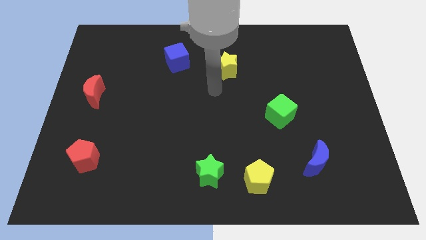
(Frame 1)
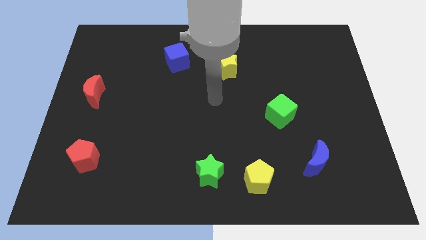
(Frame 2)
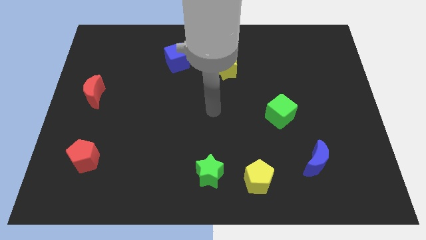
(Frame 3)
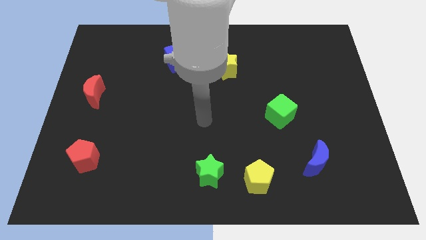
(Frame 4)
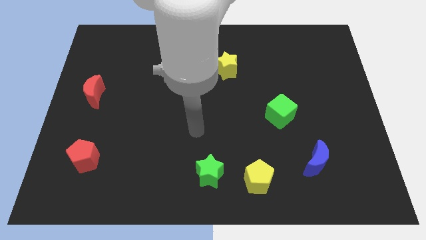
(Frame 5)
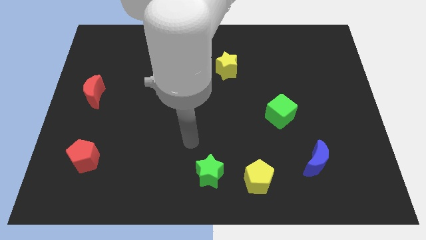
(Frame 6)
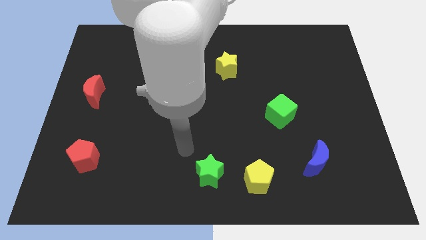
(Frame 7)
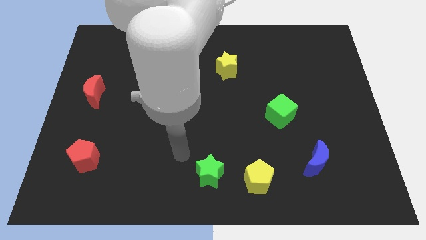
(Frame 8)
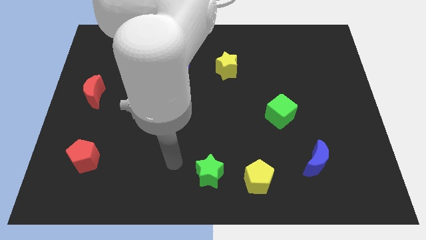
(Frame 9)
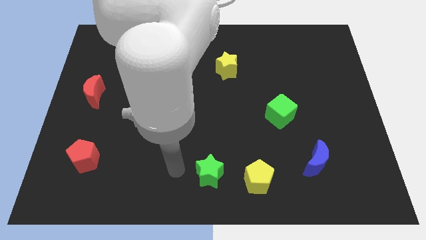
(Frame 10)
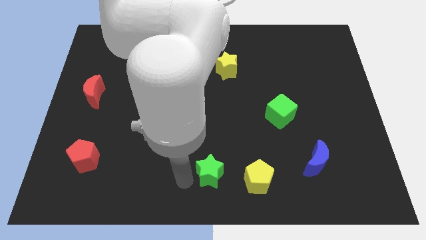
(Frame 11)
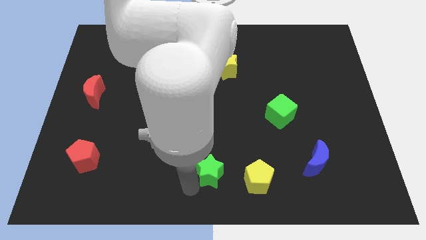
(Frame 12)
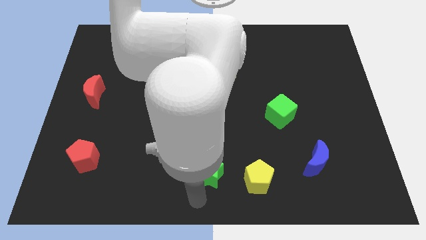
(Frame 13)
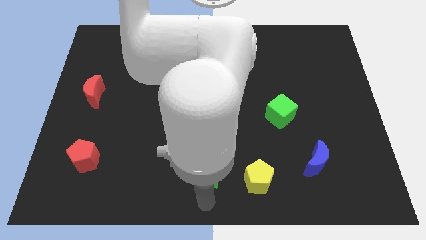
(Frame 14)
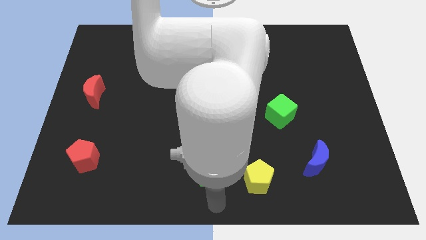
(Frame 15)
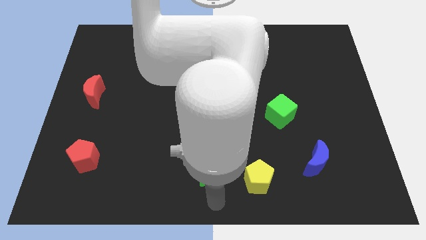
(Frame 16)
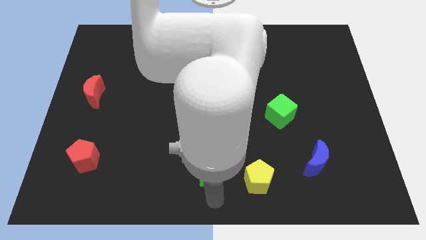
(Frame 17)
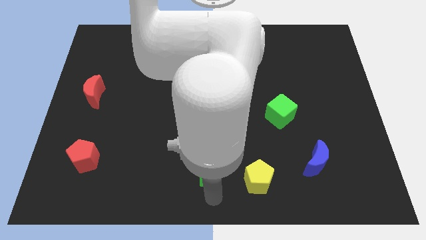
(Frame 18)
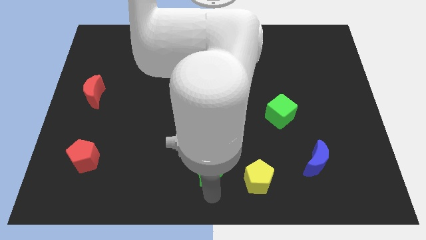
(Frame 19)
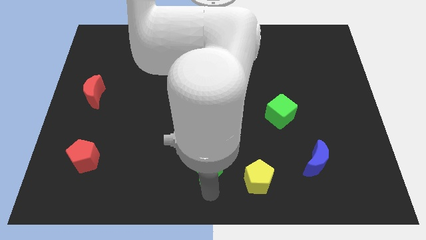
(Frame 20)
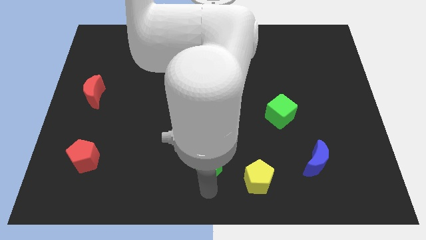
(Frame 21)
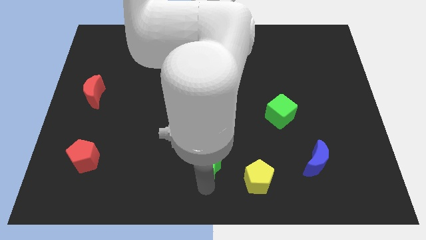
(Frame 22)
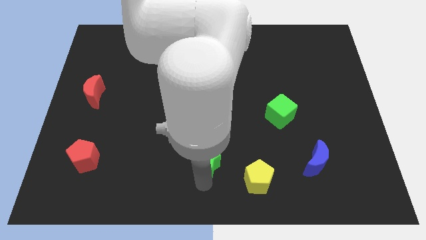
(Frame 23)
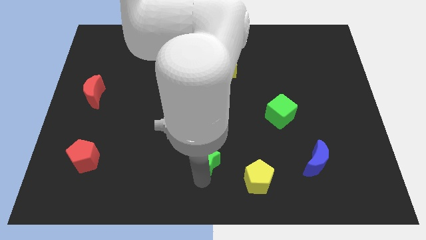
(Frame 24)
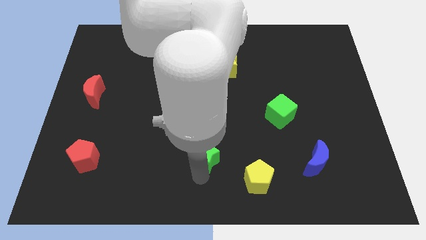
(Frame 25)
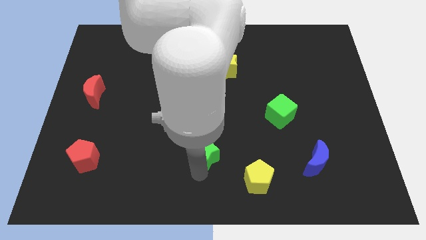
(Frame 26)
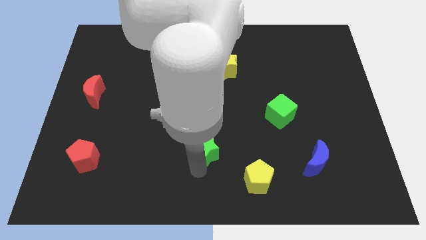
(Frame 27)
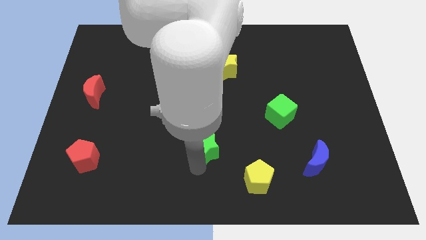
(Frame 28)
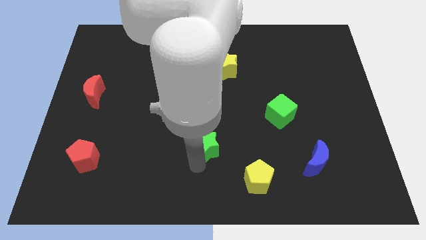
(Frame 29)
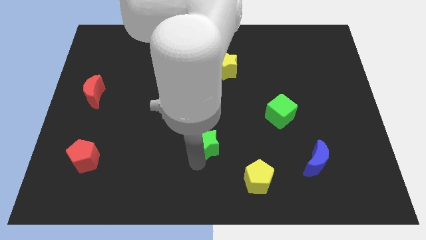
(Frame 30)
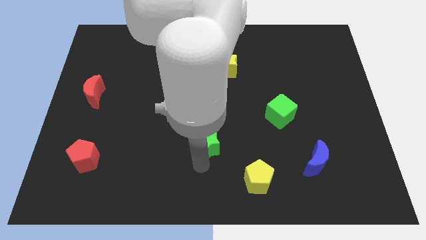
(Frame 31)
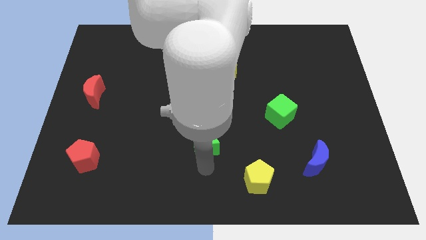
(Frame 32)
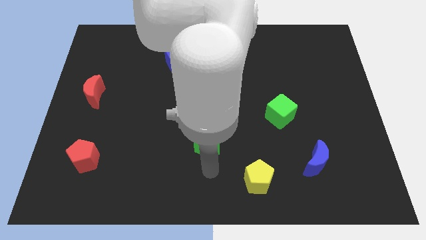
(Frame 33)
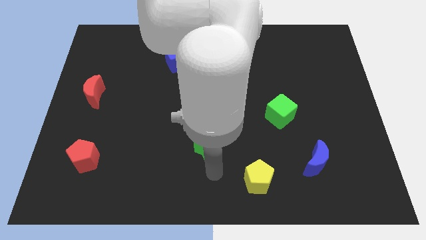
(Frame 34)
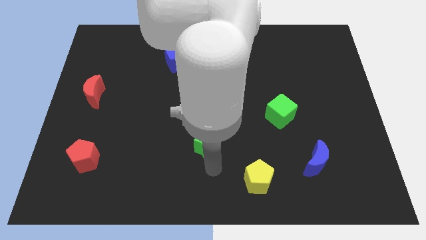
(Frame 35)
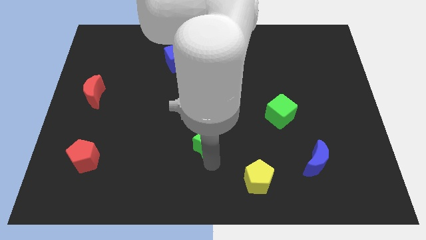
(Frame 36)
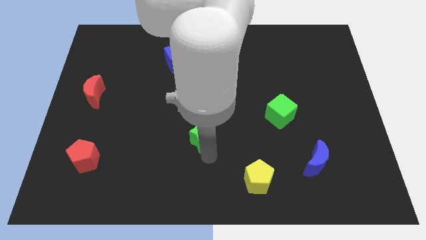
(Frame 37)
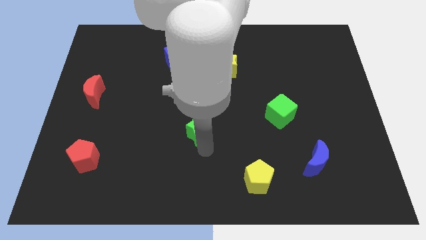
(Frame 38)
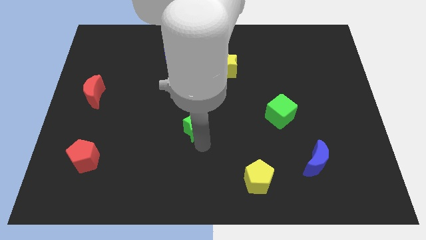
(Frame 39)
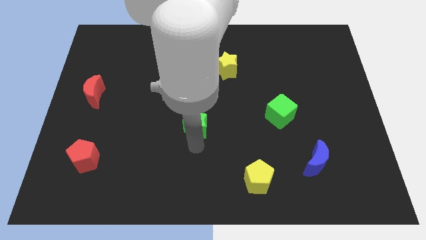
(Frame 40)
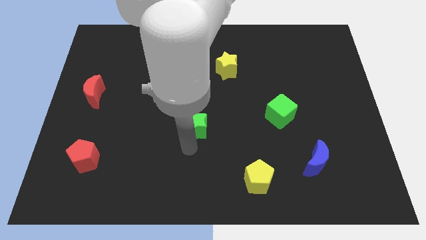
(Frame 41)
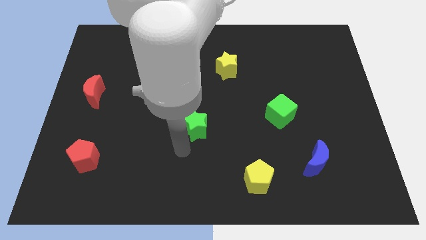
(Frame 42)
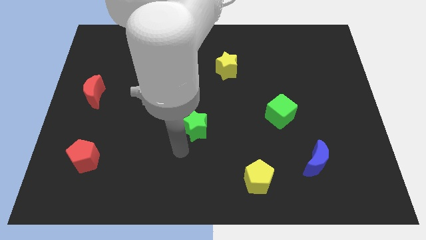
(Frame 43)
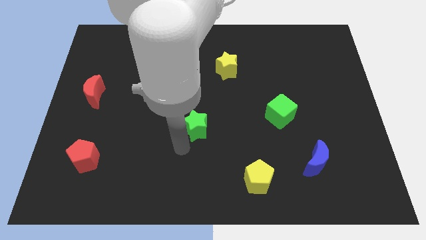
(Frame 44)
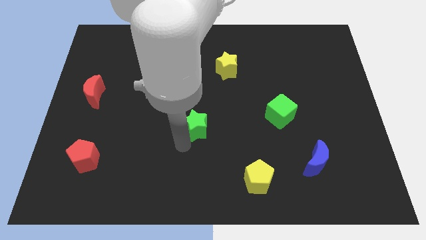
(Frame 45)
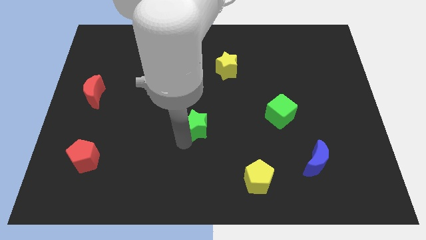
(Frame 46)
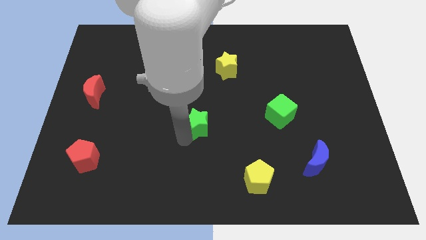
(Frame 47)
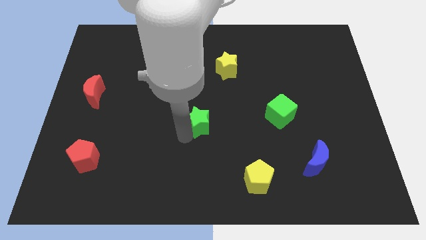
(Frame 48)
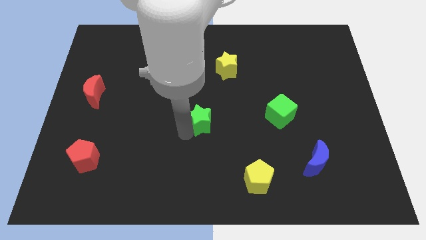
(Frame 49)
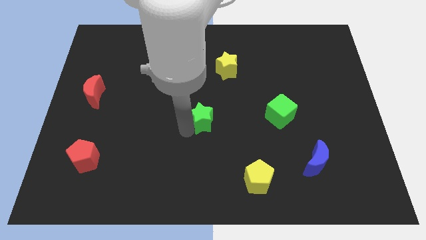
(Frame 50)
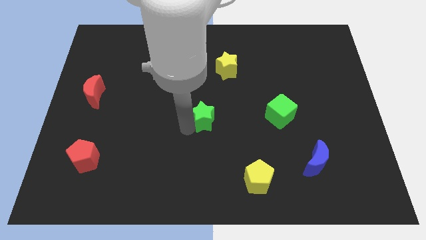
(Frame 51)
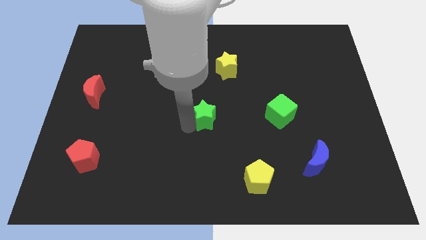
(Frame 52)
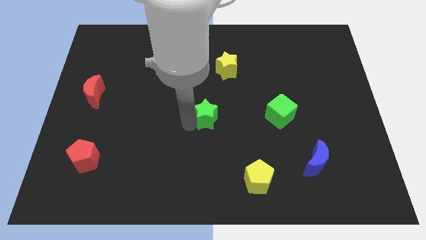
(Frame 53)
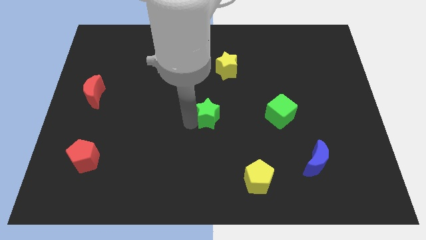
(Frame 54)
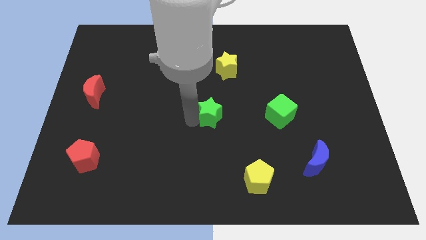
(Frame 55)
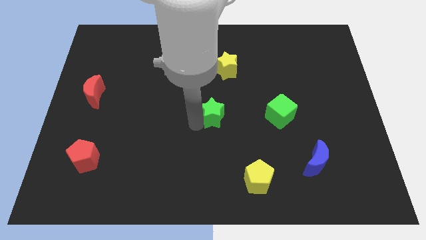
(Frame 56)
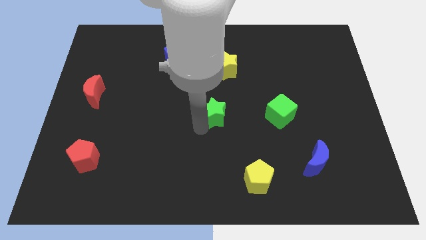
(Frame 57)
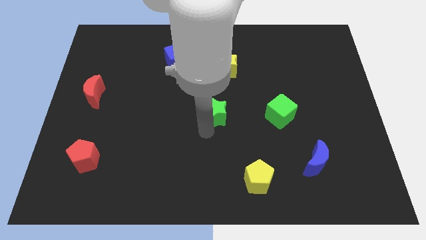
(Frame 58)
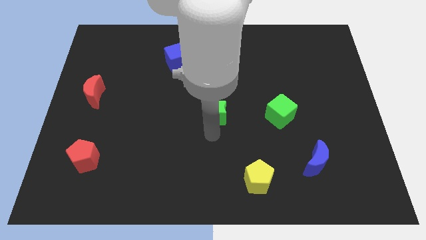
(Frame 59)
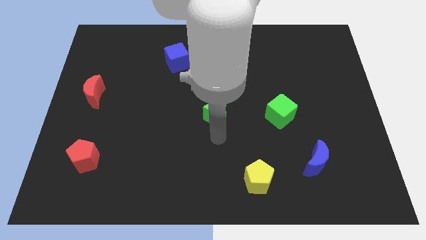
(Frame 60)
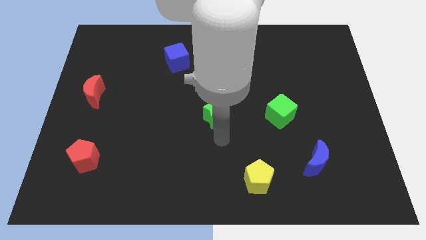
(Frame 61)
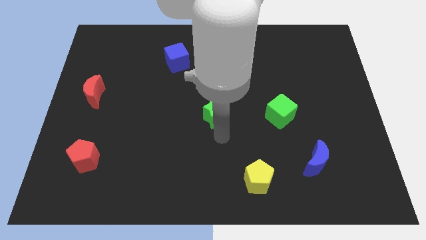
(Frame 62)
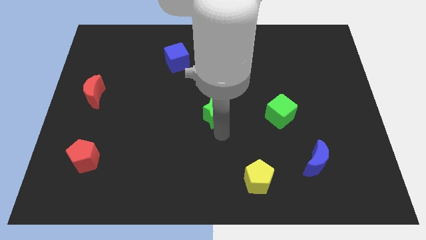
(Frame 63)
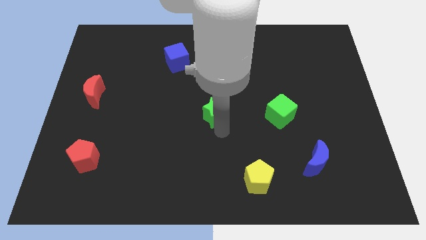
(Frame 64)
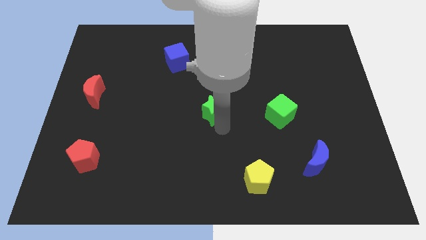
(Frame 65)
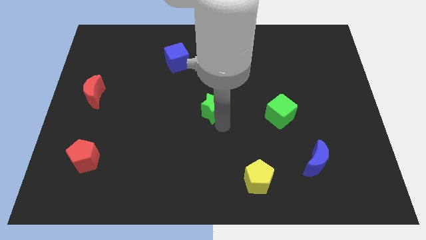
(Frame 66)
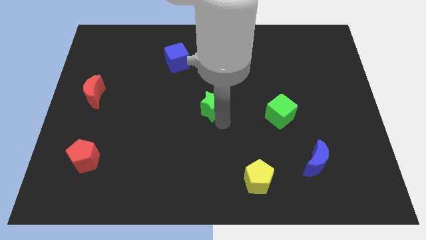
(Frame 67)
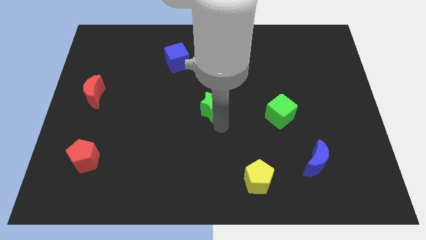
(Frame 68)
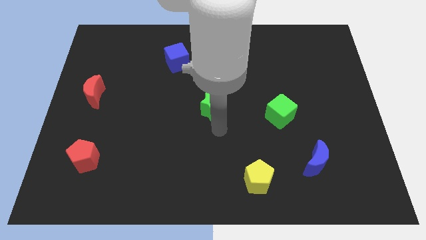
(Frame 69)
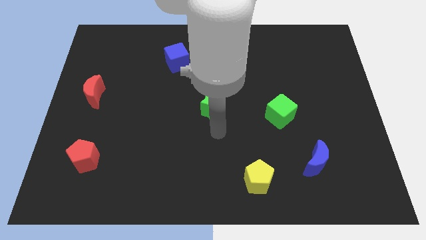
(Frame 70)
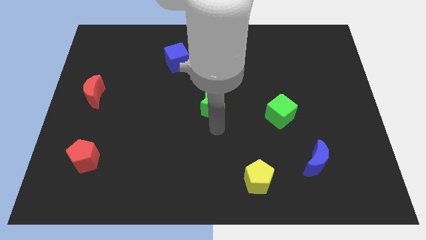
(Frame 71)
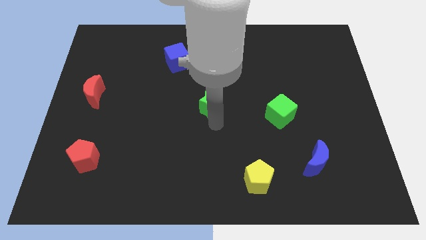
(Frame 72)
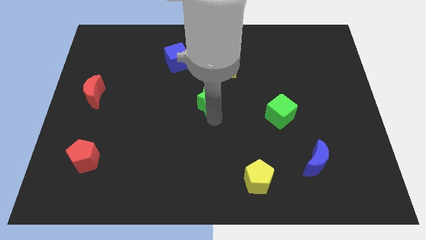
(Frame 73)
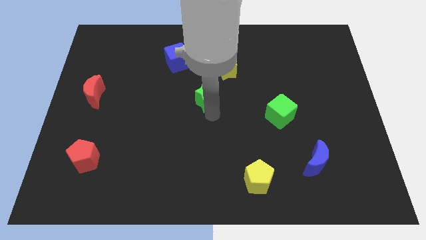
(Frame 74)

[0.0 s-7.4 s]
move the green star upwards

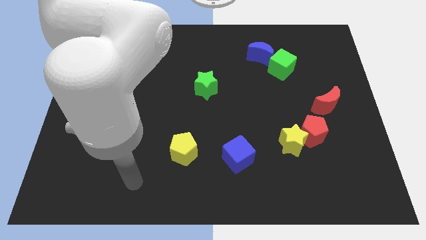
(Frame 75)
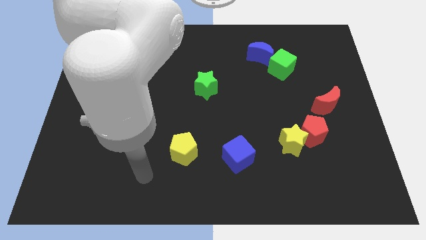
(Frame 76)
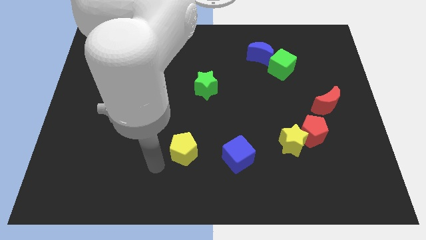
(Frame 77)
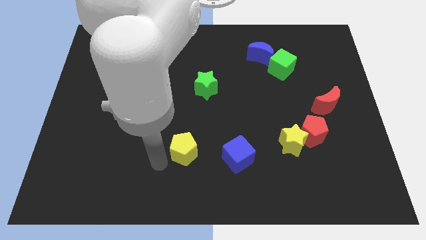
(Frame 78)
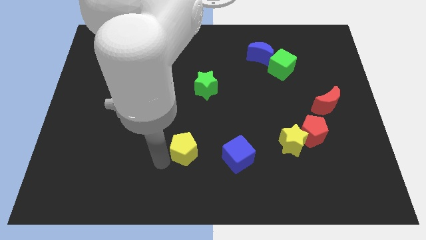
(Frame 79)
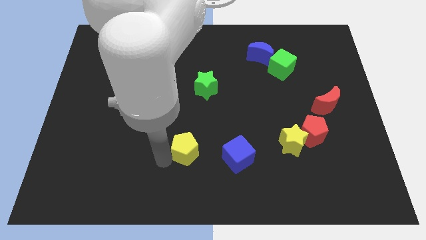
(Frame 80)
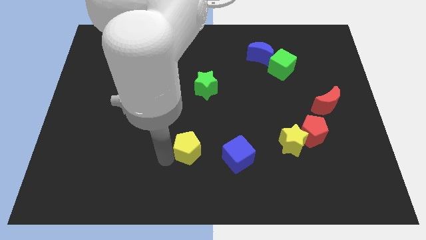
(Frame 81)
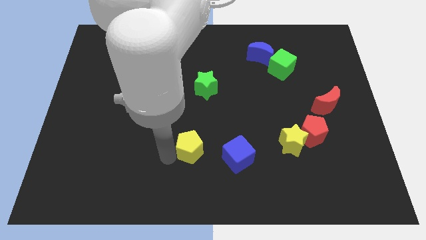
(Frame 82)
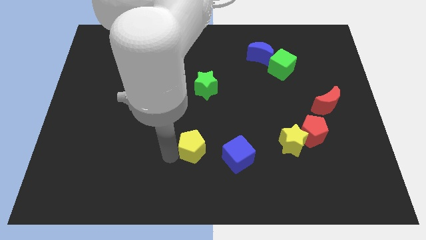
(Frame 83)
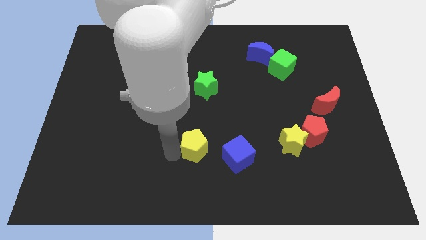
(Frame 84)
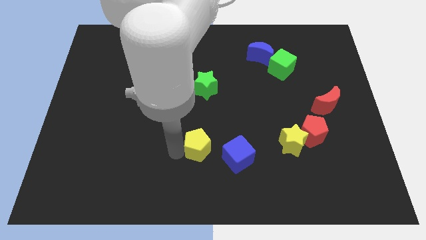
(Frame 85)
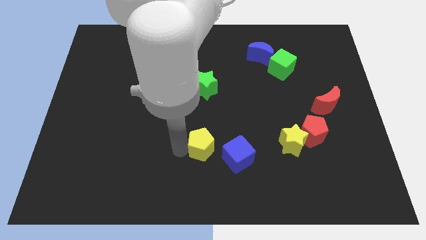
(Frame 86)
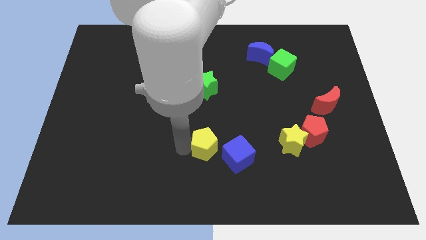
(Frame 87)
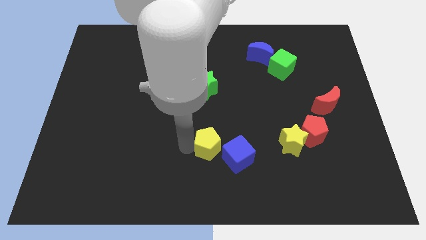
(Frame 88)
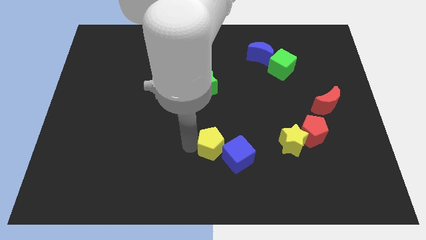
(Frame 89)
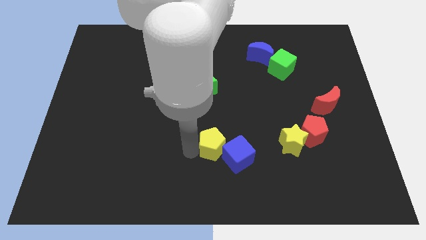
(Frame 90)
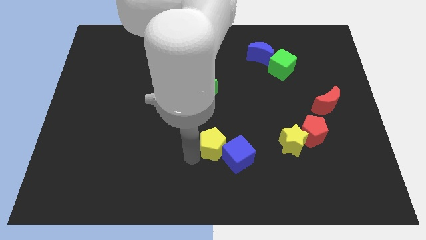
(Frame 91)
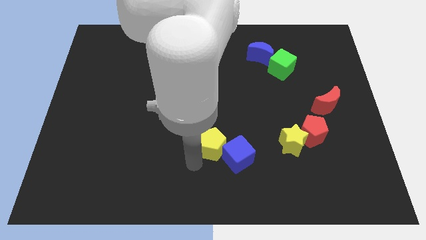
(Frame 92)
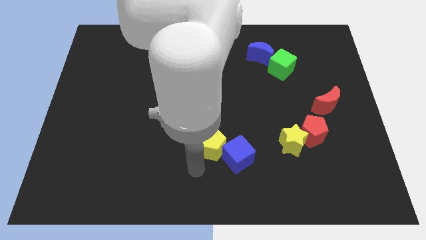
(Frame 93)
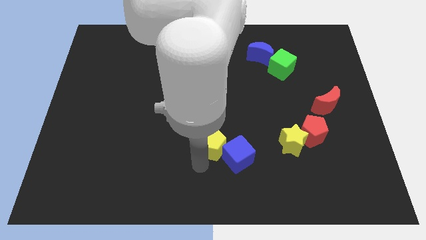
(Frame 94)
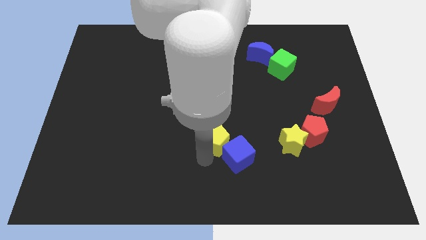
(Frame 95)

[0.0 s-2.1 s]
slightly move the yellow pentagon to the right
